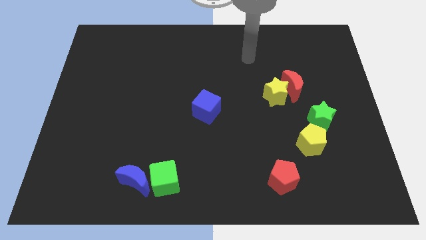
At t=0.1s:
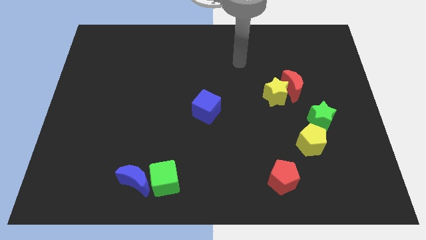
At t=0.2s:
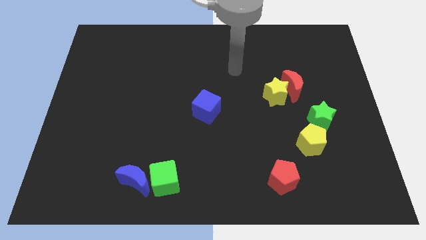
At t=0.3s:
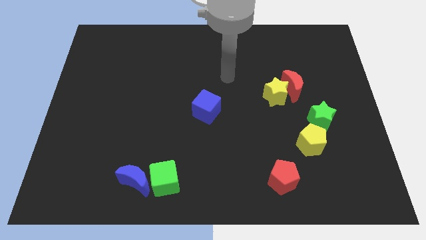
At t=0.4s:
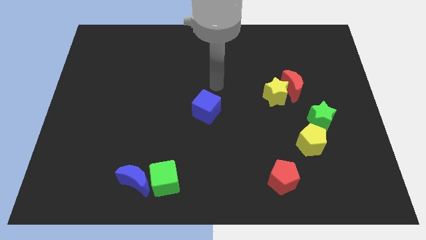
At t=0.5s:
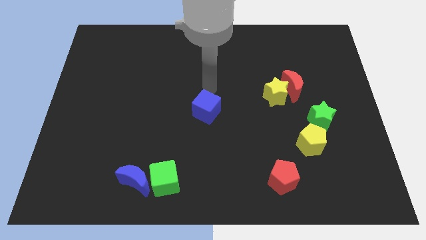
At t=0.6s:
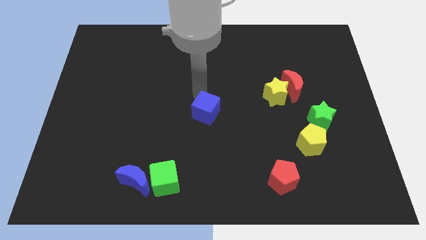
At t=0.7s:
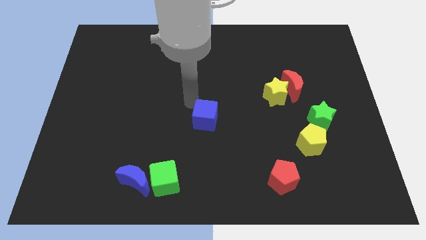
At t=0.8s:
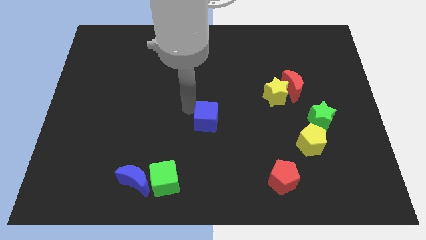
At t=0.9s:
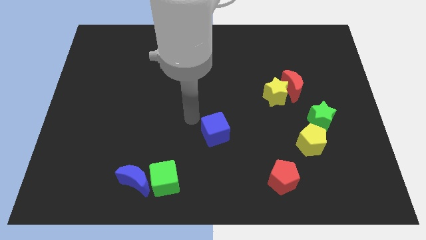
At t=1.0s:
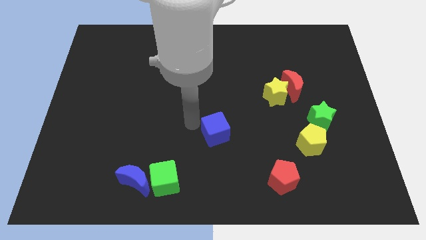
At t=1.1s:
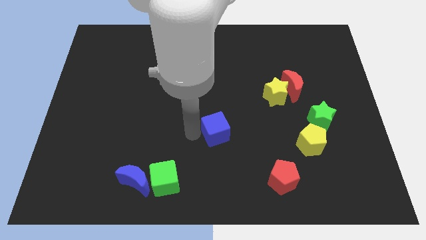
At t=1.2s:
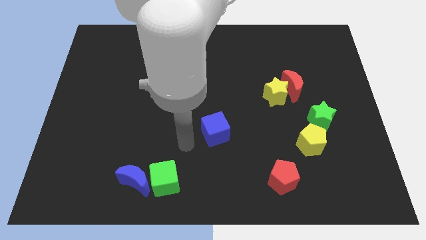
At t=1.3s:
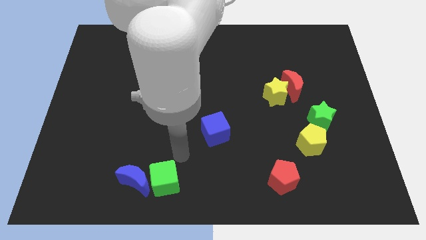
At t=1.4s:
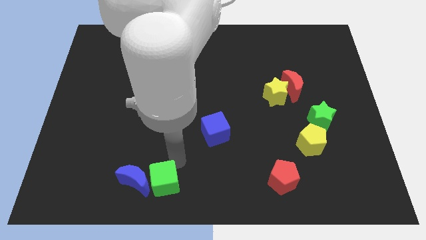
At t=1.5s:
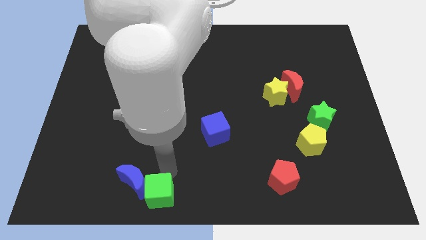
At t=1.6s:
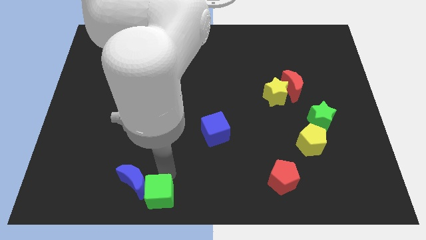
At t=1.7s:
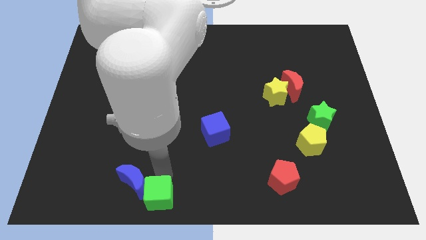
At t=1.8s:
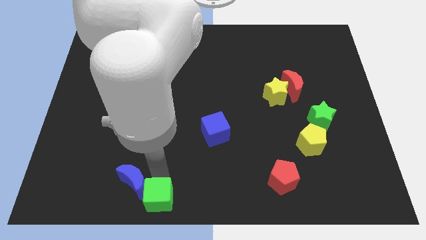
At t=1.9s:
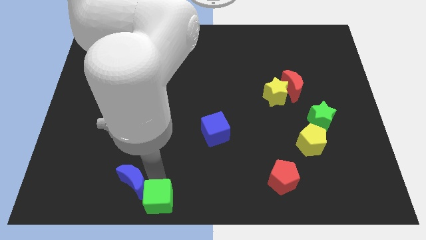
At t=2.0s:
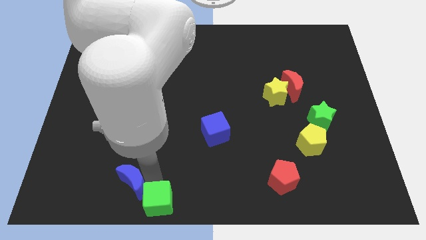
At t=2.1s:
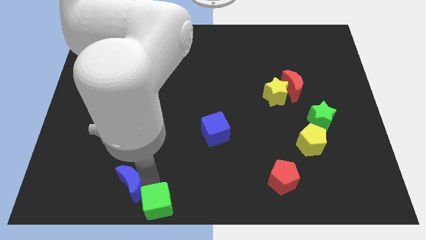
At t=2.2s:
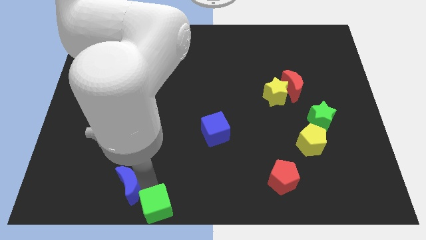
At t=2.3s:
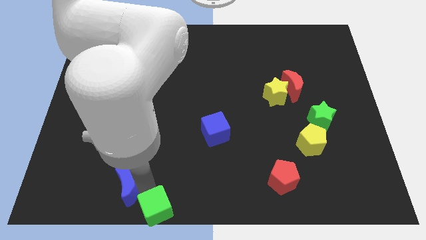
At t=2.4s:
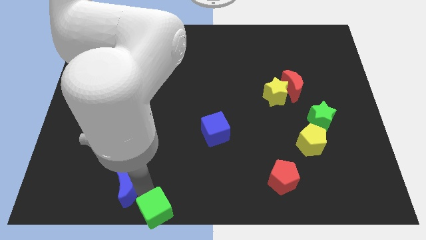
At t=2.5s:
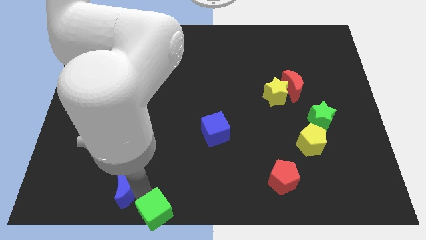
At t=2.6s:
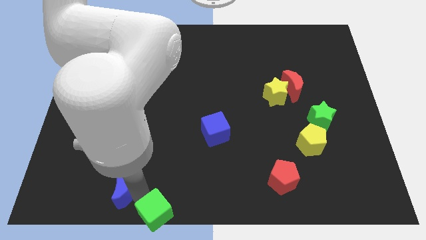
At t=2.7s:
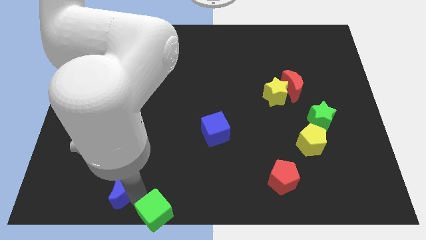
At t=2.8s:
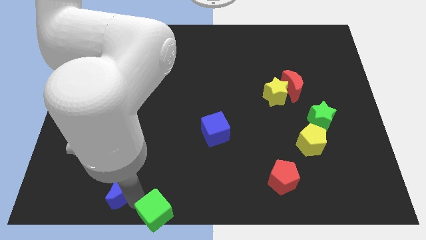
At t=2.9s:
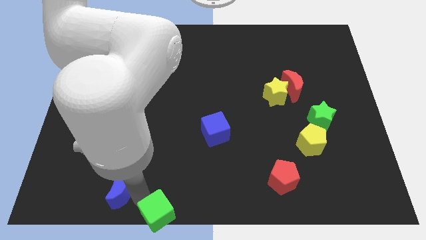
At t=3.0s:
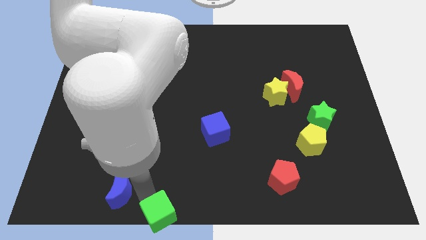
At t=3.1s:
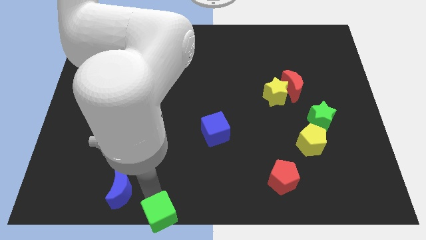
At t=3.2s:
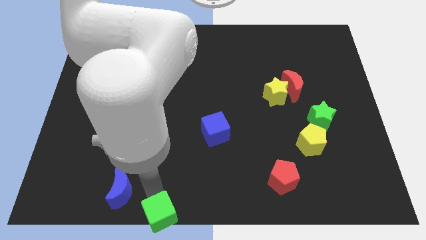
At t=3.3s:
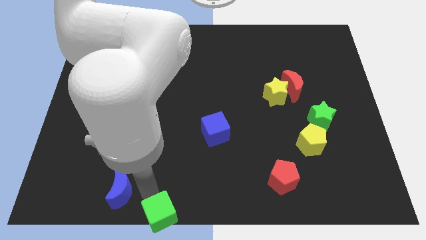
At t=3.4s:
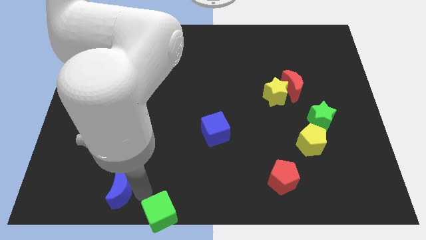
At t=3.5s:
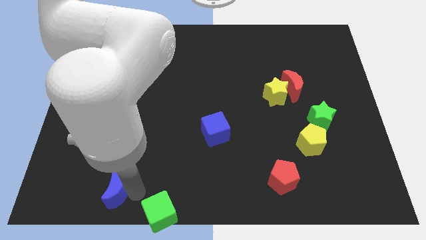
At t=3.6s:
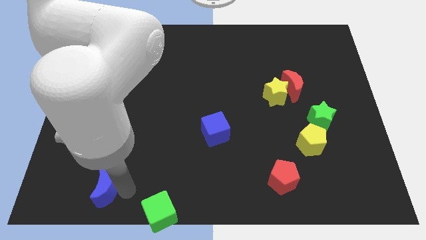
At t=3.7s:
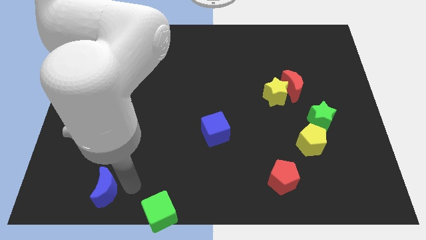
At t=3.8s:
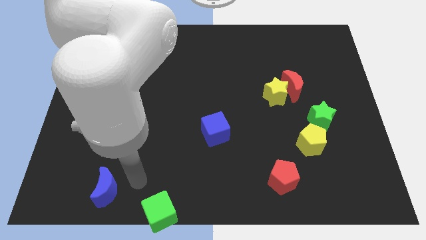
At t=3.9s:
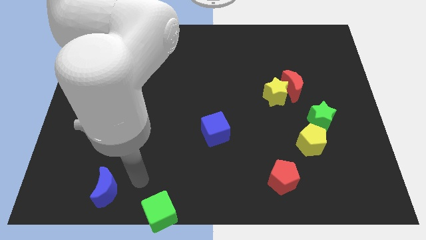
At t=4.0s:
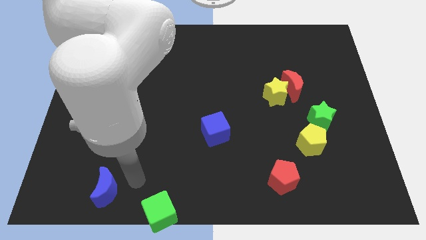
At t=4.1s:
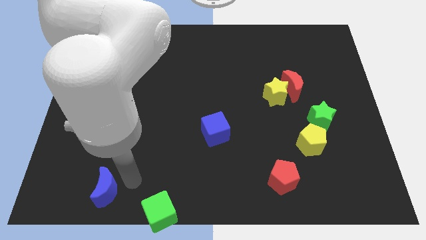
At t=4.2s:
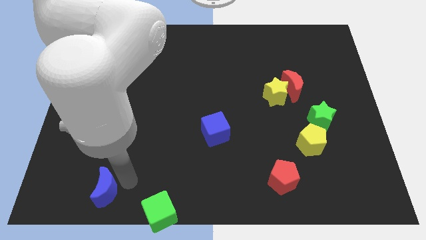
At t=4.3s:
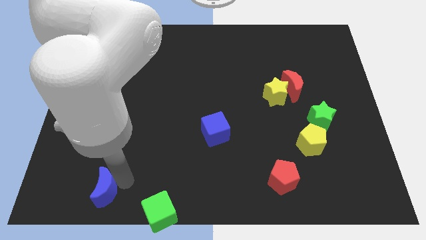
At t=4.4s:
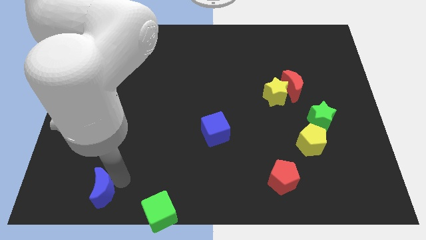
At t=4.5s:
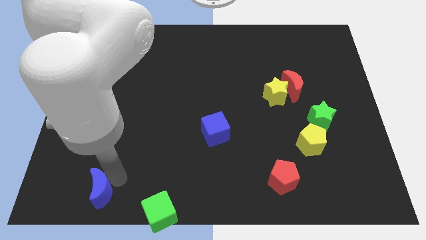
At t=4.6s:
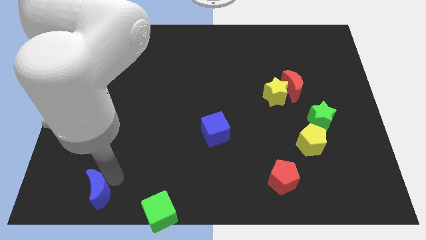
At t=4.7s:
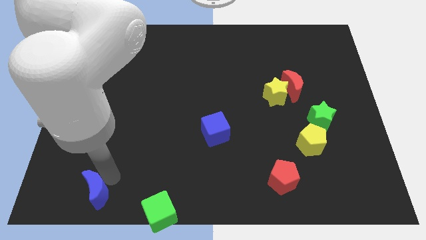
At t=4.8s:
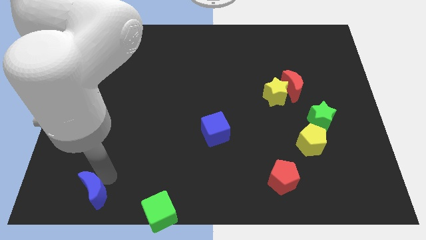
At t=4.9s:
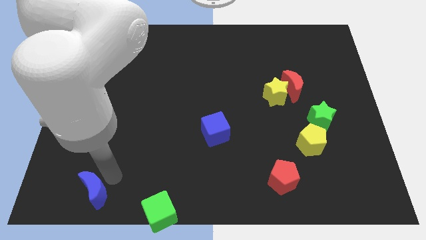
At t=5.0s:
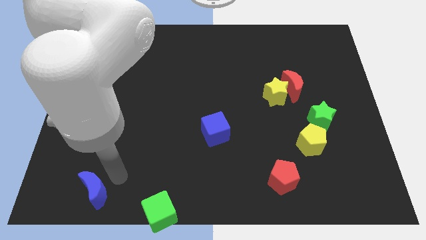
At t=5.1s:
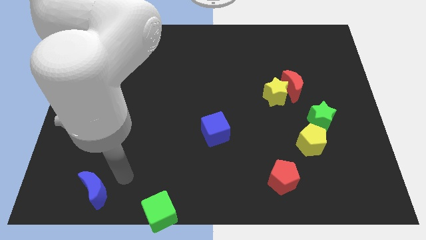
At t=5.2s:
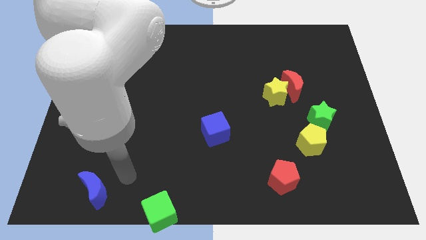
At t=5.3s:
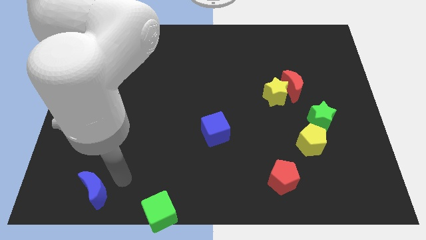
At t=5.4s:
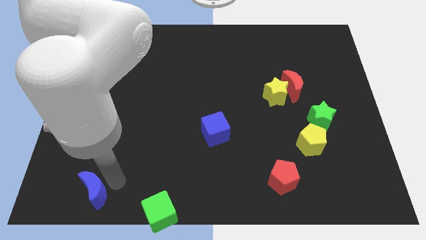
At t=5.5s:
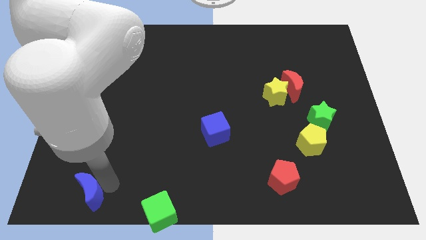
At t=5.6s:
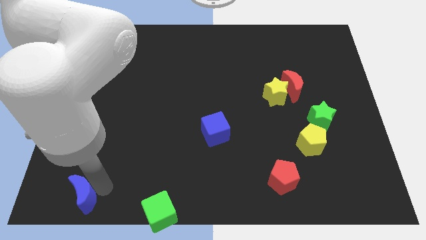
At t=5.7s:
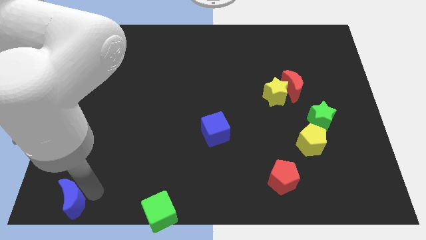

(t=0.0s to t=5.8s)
put the blue moon to the bottom left corner

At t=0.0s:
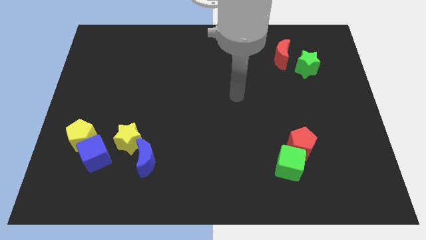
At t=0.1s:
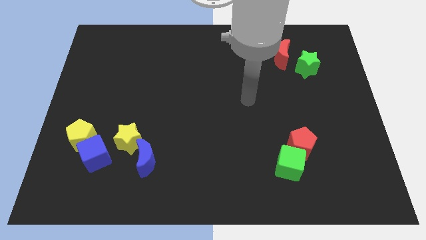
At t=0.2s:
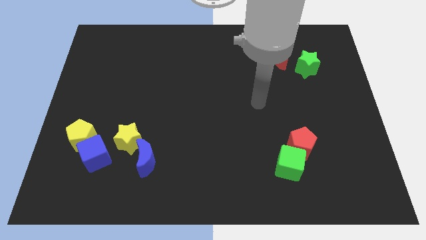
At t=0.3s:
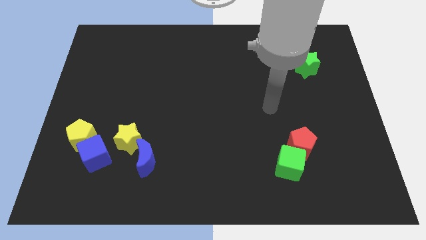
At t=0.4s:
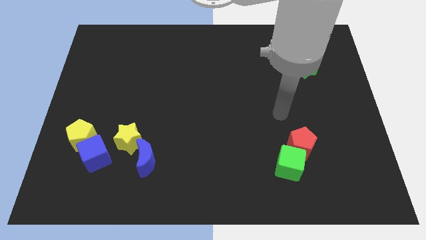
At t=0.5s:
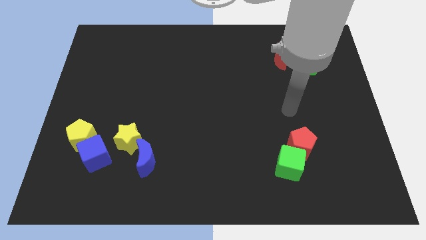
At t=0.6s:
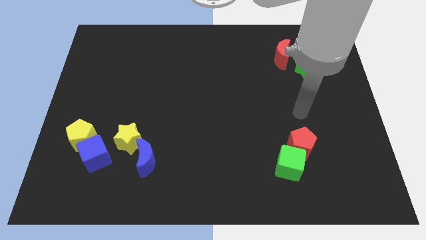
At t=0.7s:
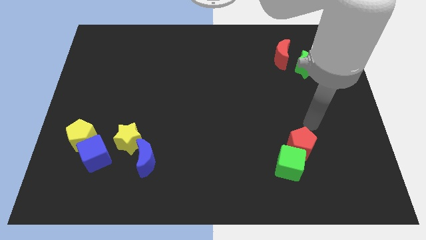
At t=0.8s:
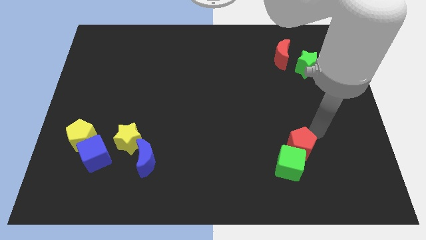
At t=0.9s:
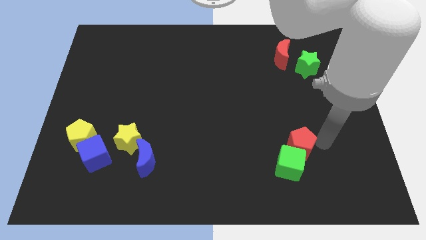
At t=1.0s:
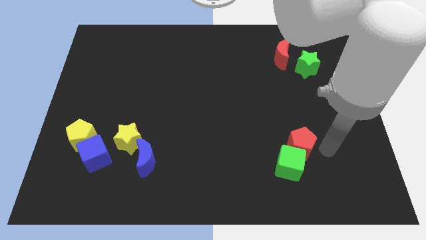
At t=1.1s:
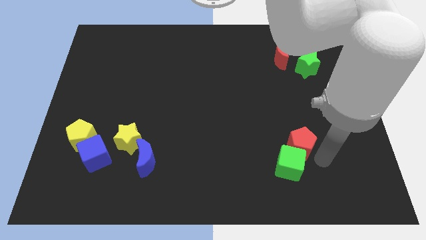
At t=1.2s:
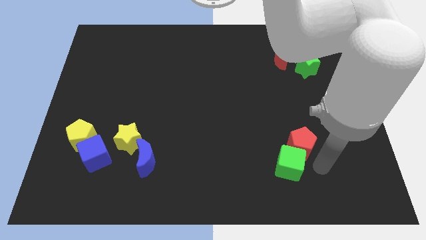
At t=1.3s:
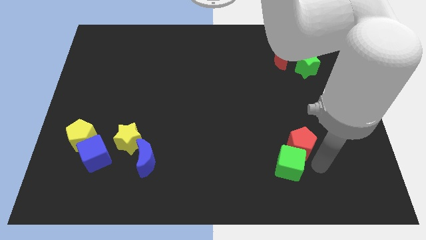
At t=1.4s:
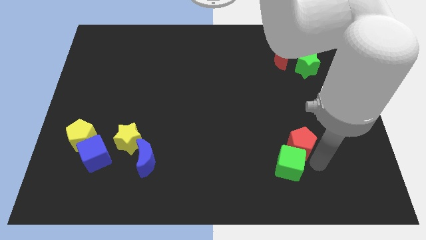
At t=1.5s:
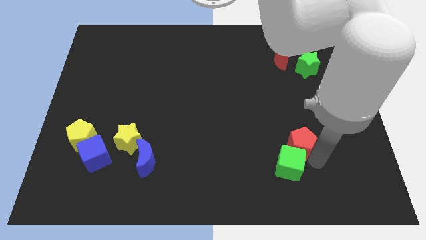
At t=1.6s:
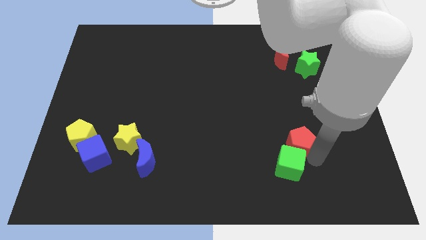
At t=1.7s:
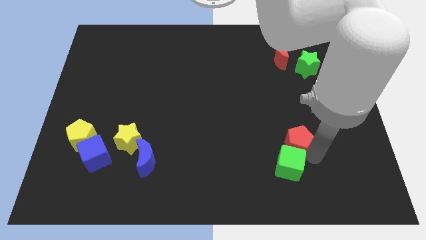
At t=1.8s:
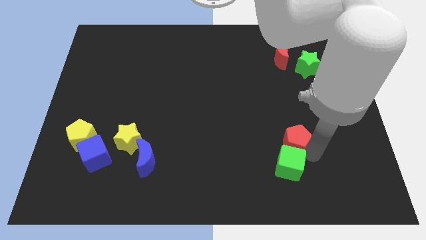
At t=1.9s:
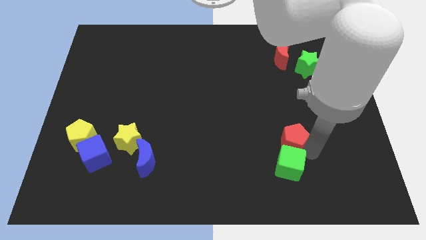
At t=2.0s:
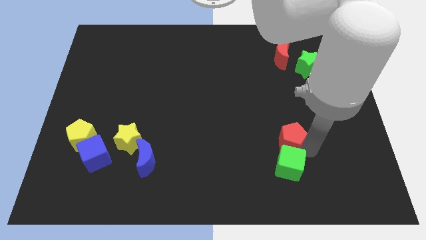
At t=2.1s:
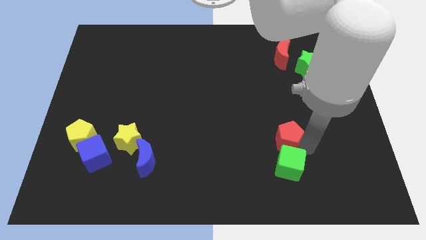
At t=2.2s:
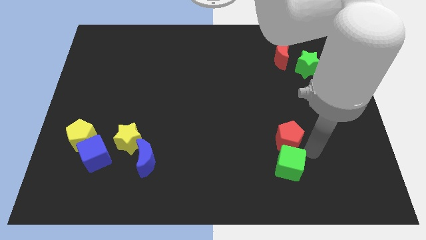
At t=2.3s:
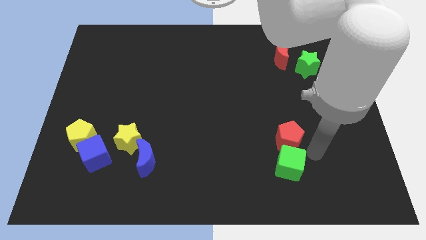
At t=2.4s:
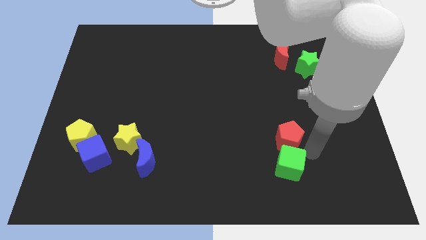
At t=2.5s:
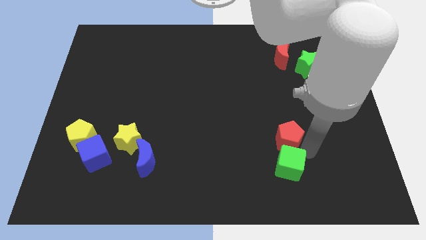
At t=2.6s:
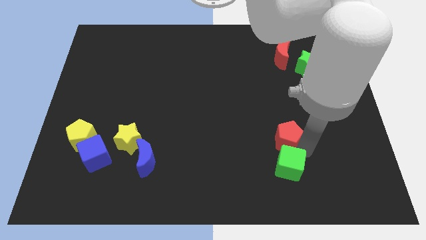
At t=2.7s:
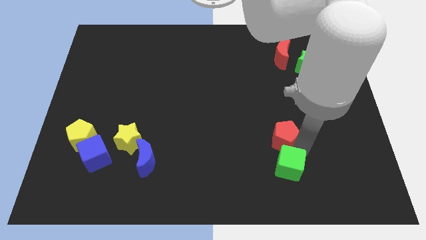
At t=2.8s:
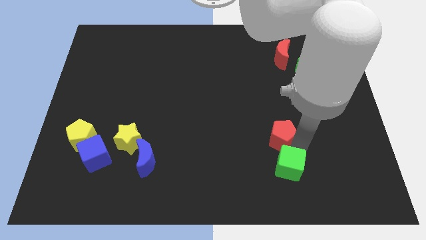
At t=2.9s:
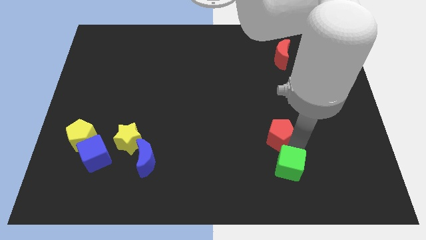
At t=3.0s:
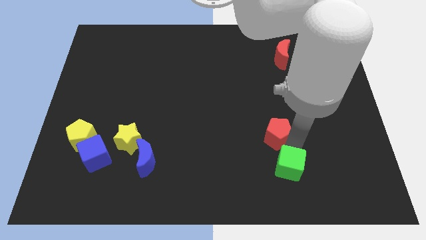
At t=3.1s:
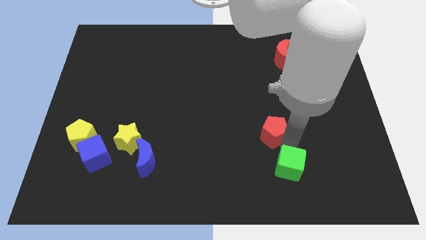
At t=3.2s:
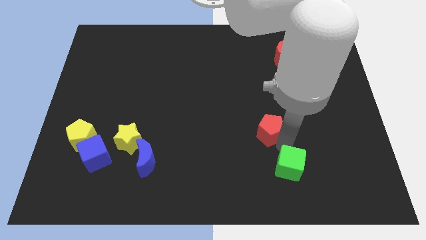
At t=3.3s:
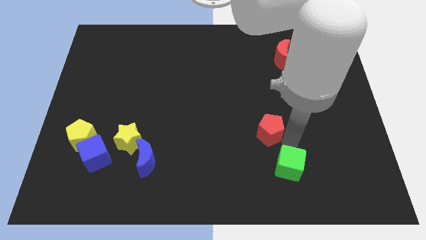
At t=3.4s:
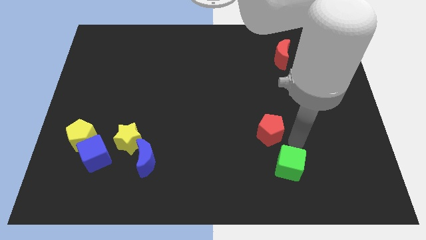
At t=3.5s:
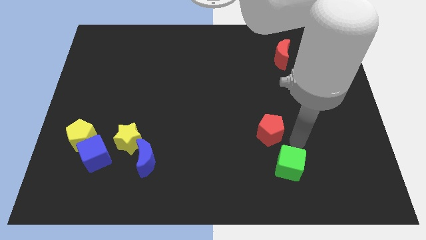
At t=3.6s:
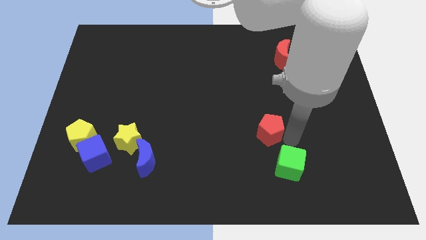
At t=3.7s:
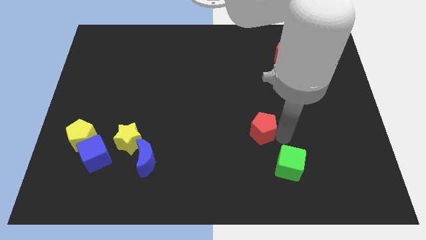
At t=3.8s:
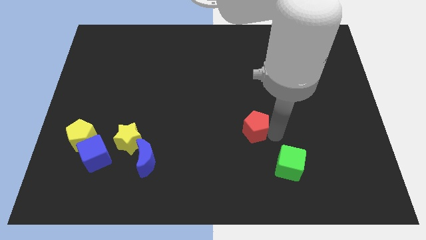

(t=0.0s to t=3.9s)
put the red pentagon to the middle of the board
